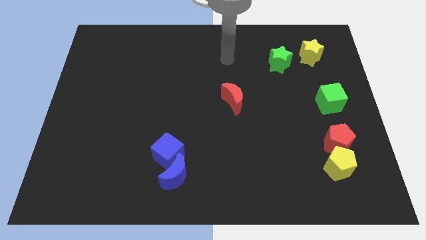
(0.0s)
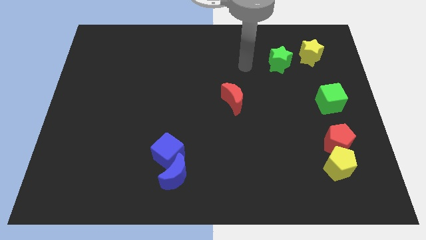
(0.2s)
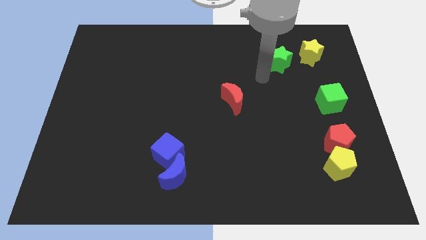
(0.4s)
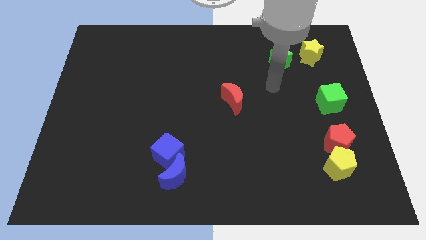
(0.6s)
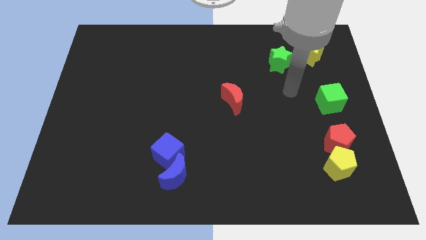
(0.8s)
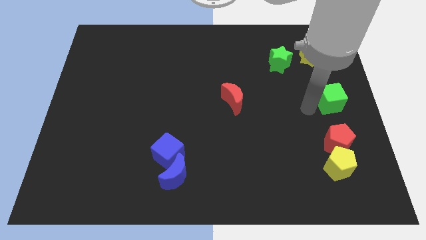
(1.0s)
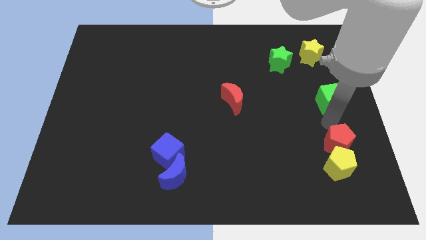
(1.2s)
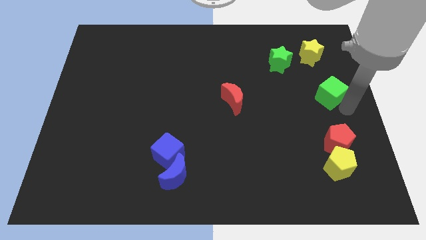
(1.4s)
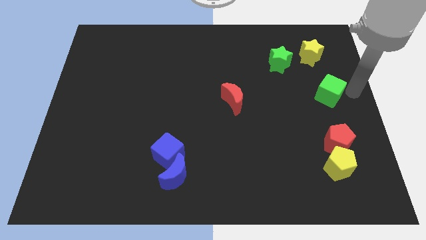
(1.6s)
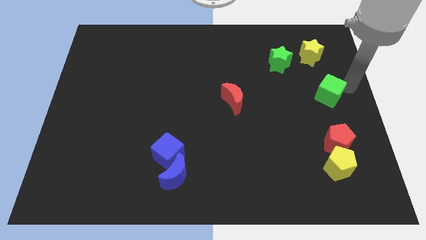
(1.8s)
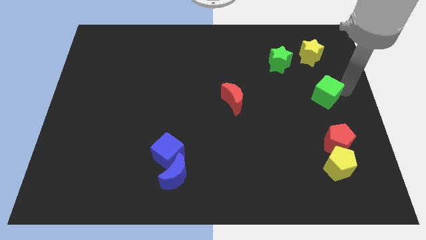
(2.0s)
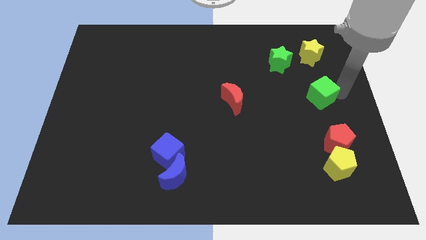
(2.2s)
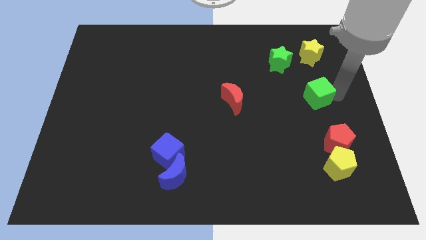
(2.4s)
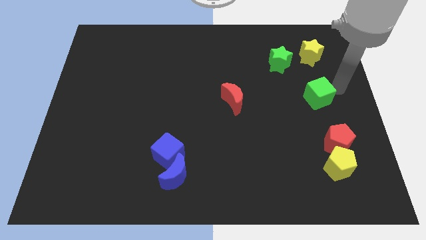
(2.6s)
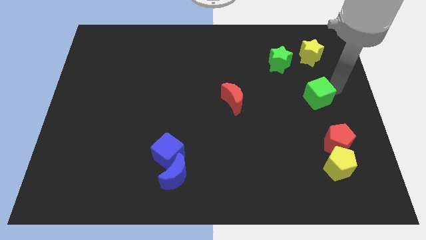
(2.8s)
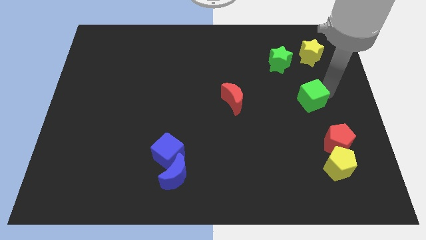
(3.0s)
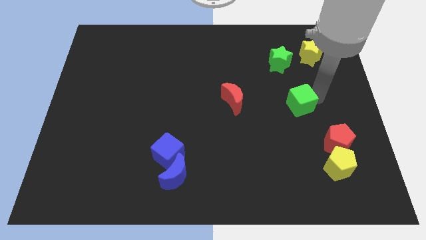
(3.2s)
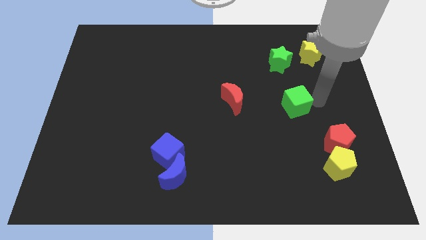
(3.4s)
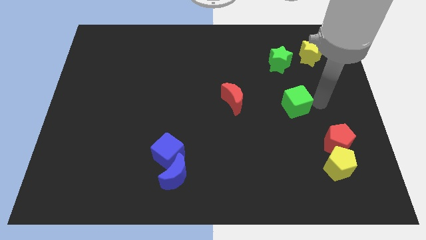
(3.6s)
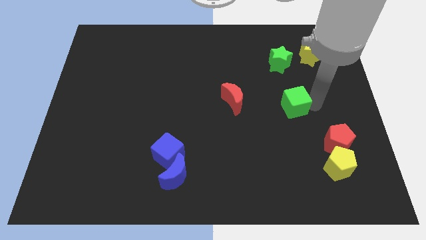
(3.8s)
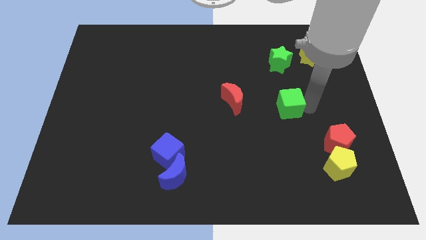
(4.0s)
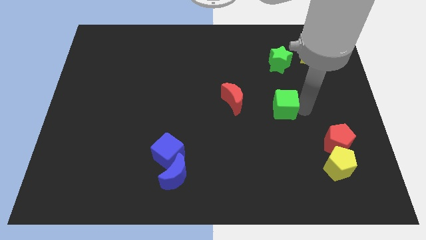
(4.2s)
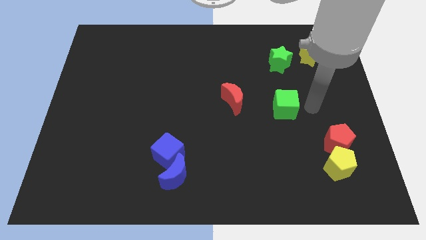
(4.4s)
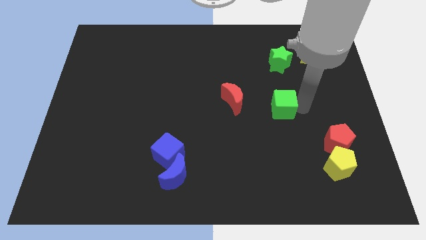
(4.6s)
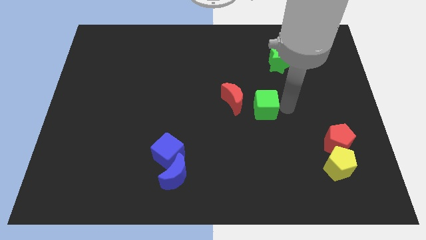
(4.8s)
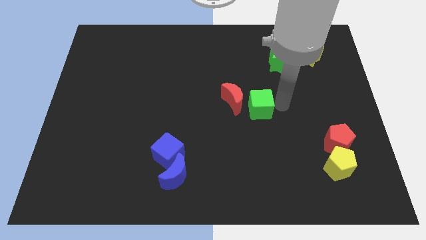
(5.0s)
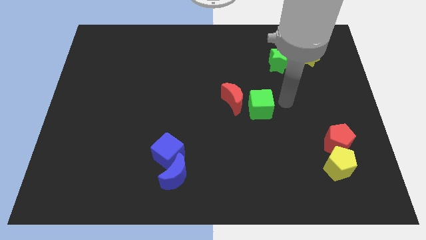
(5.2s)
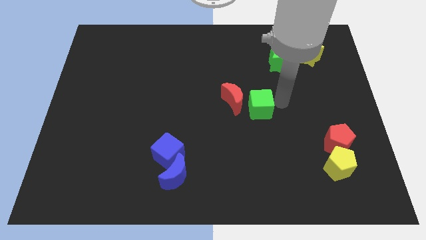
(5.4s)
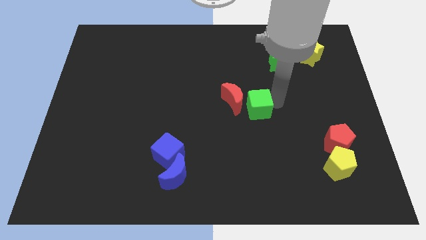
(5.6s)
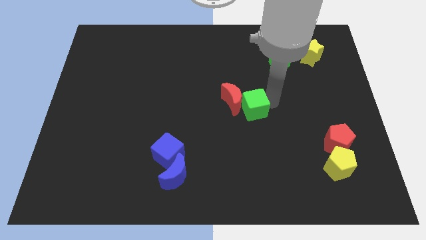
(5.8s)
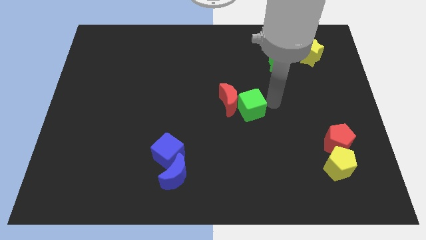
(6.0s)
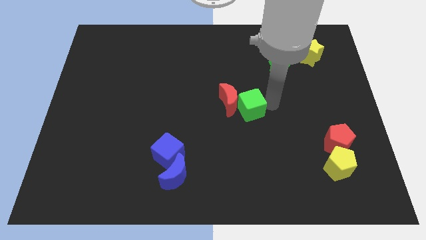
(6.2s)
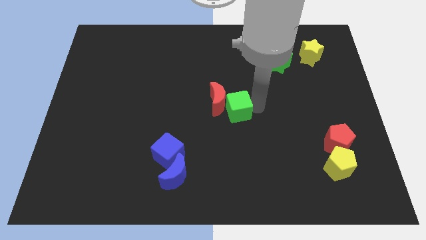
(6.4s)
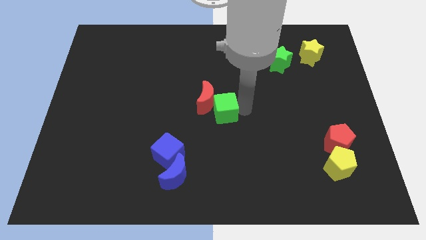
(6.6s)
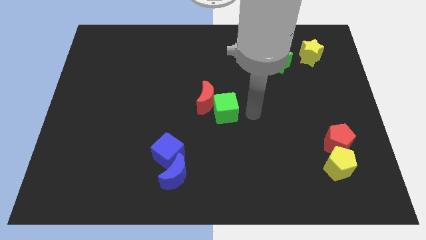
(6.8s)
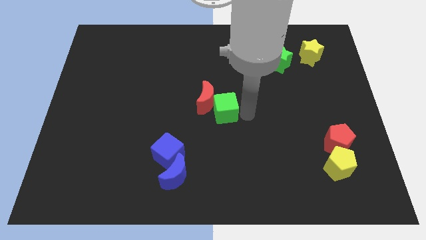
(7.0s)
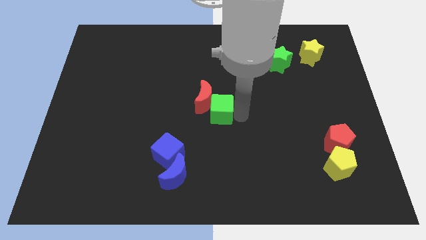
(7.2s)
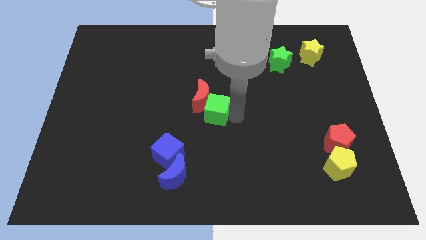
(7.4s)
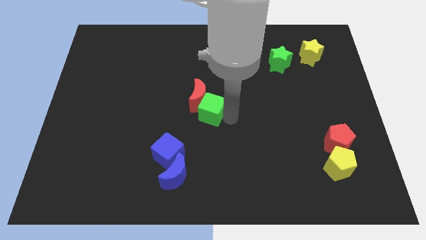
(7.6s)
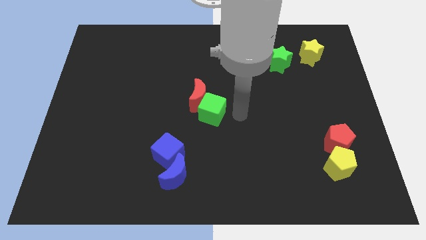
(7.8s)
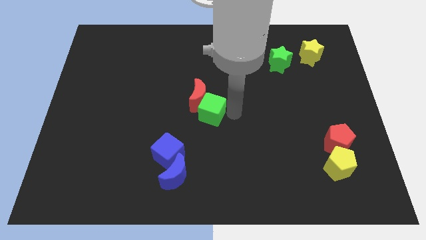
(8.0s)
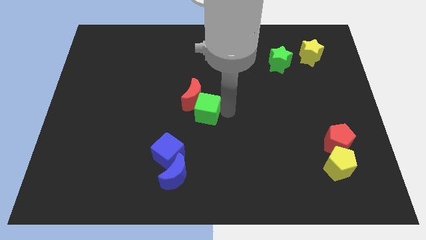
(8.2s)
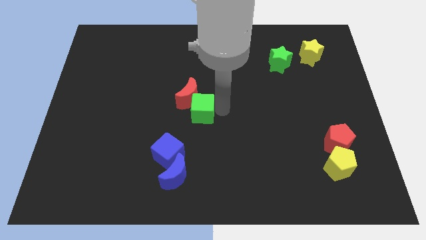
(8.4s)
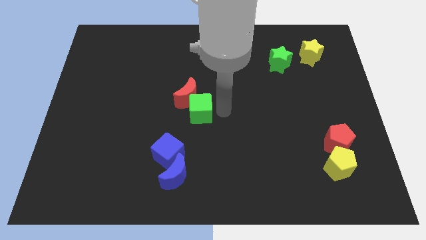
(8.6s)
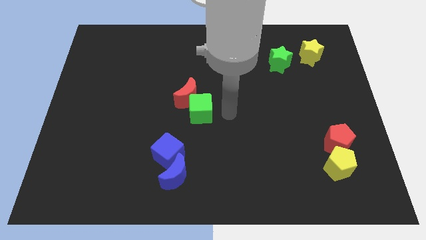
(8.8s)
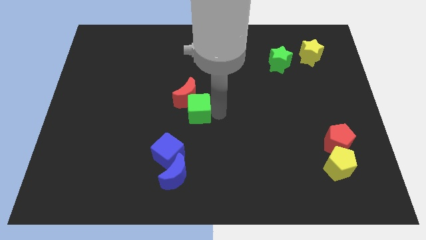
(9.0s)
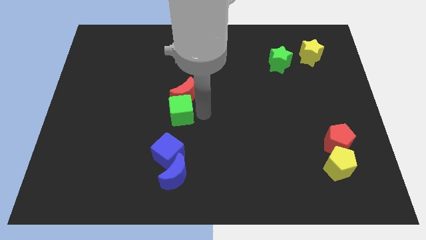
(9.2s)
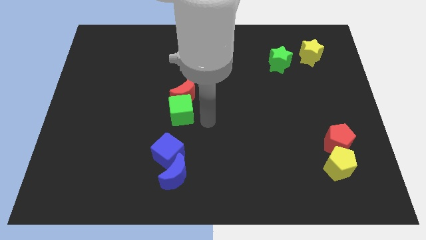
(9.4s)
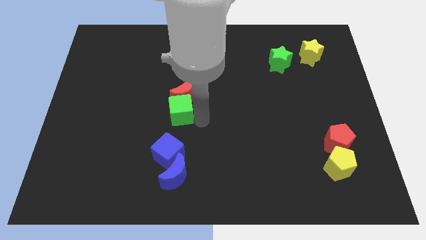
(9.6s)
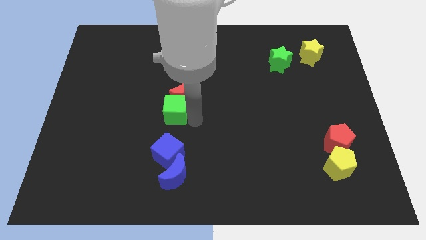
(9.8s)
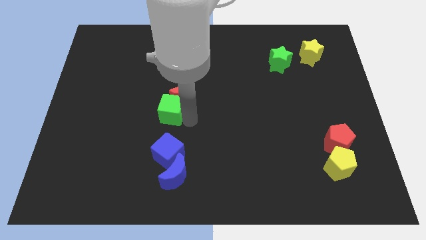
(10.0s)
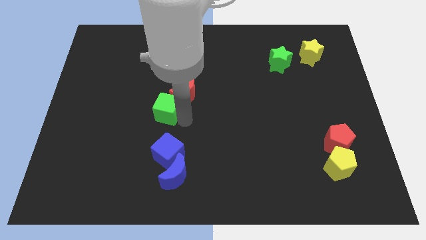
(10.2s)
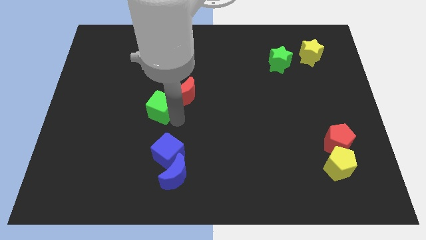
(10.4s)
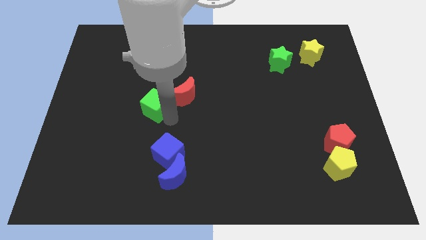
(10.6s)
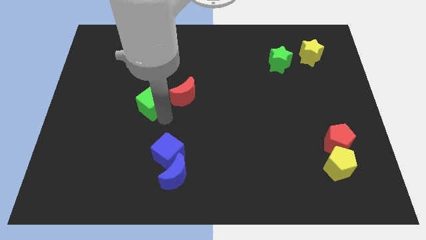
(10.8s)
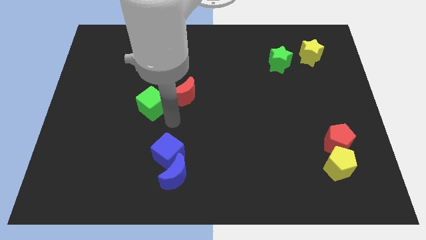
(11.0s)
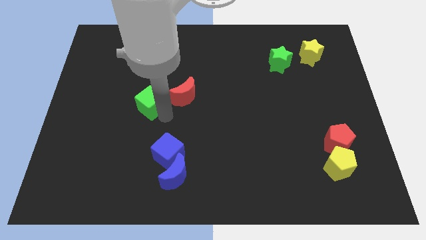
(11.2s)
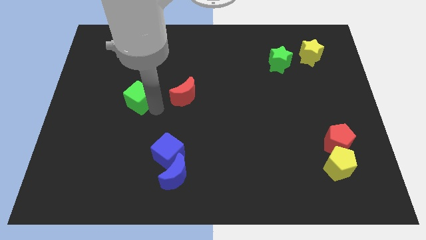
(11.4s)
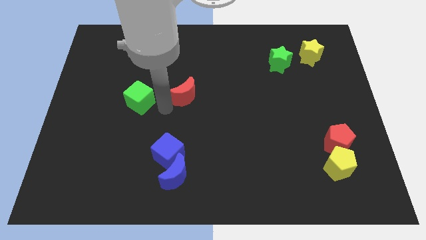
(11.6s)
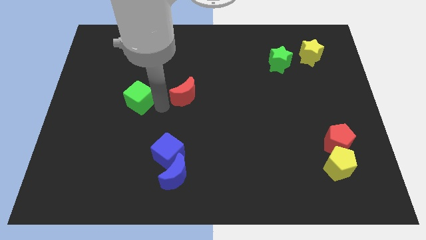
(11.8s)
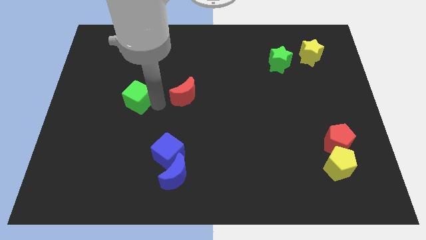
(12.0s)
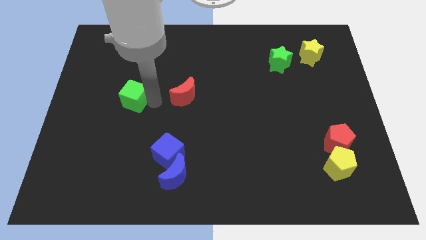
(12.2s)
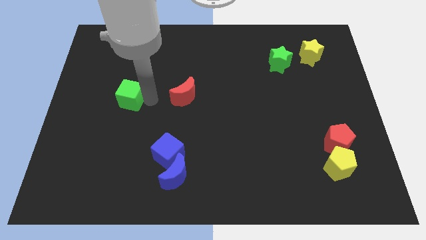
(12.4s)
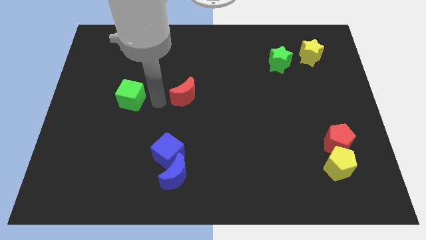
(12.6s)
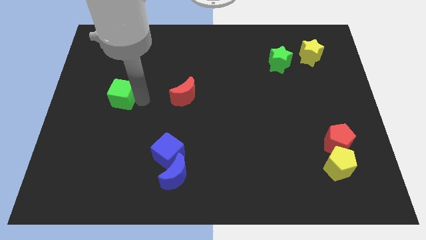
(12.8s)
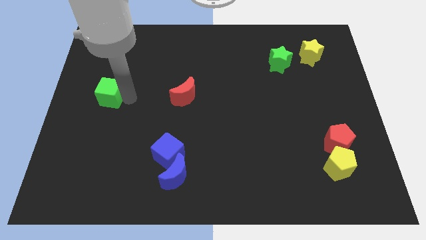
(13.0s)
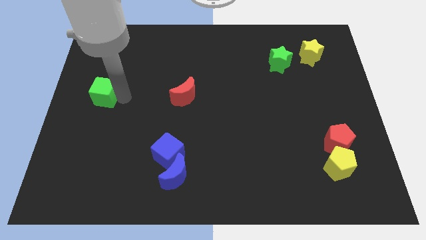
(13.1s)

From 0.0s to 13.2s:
put the green cube to the left side

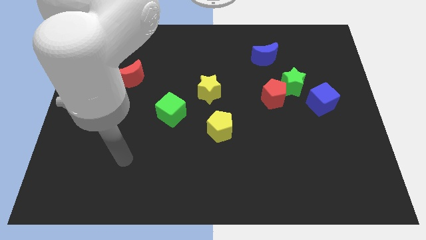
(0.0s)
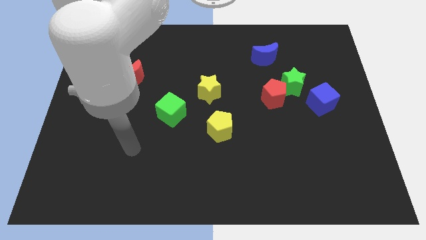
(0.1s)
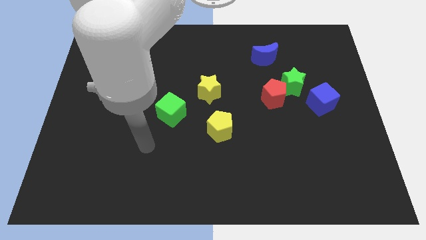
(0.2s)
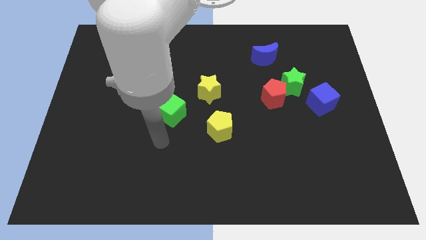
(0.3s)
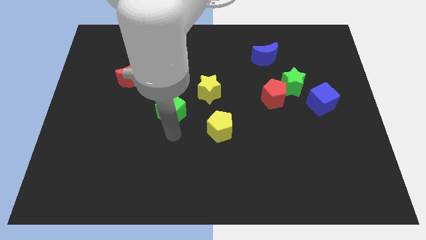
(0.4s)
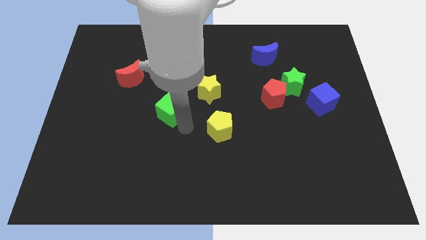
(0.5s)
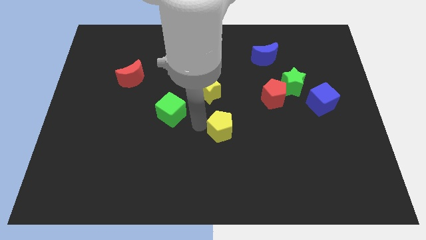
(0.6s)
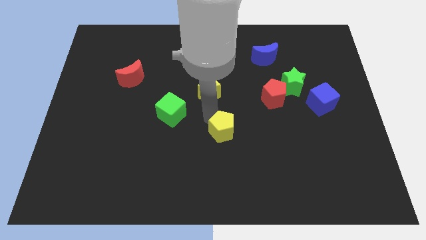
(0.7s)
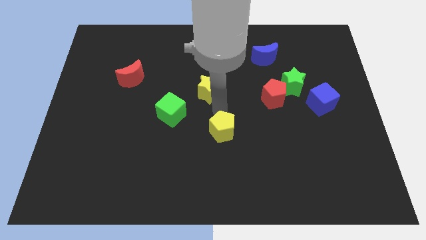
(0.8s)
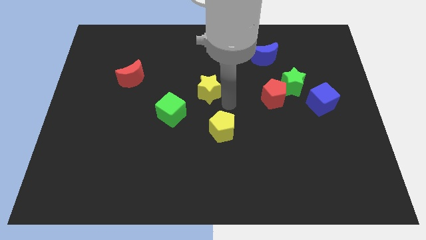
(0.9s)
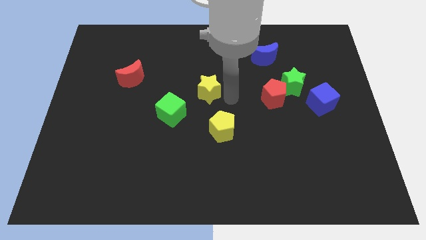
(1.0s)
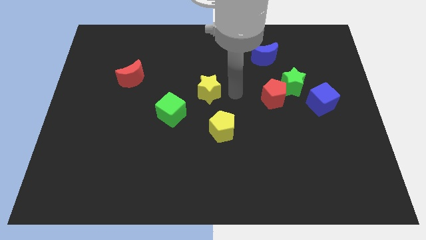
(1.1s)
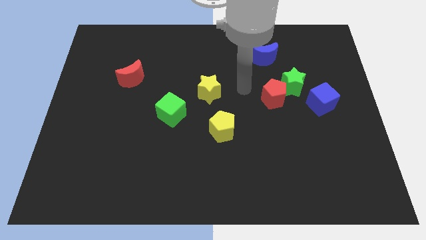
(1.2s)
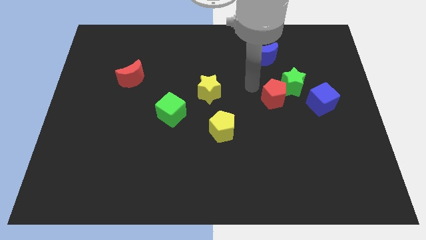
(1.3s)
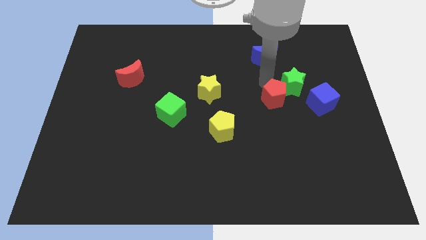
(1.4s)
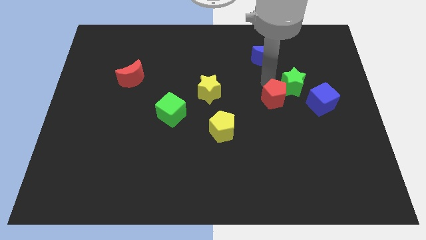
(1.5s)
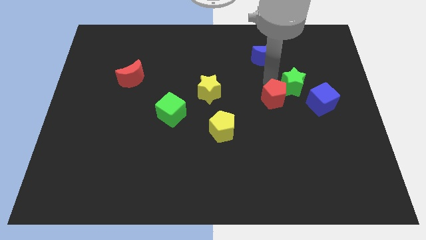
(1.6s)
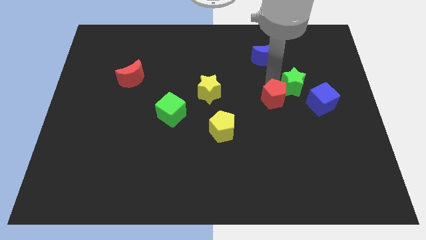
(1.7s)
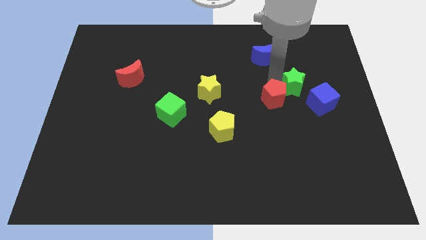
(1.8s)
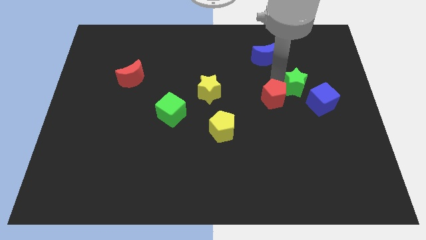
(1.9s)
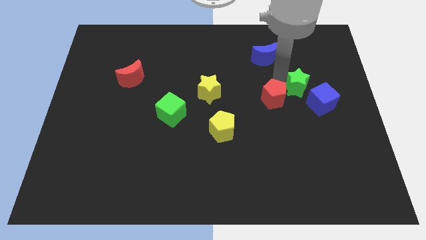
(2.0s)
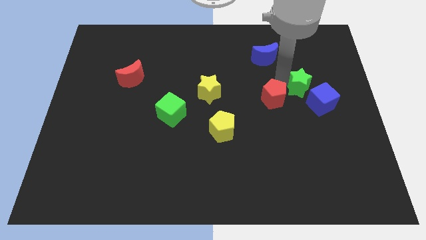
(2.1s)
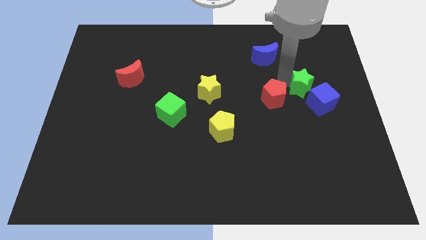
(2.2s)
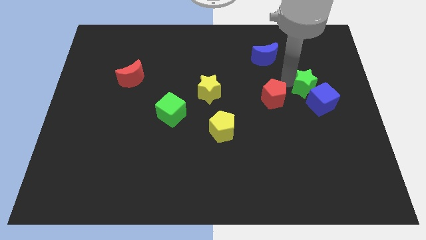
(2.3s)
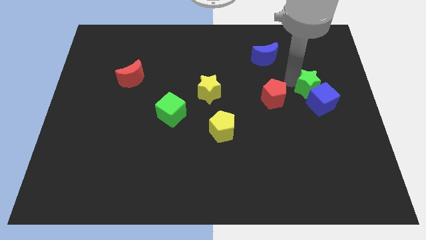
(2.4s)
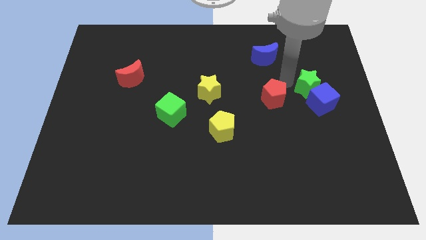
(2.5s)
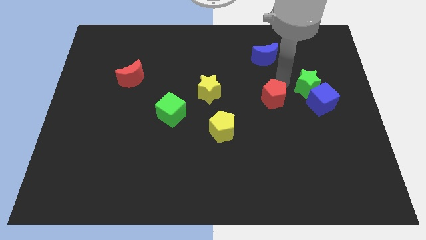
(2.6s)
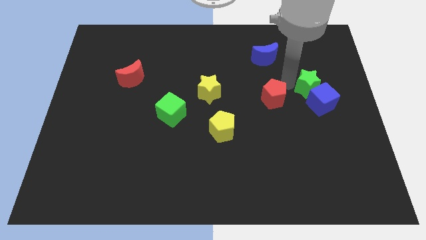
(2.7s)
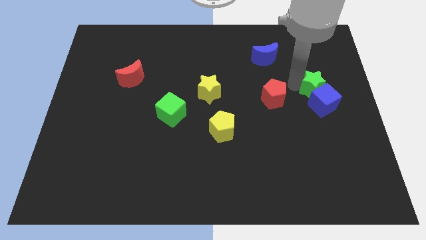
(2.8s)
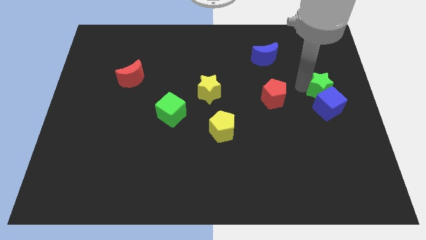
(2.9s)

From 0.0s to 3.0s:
put the green star to the right side
